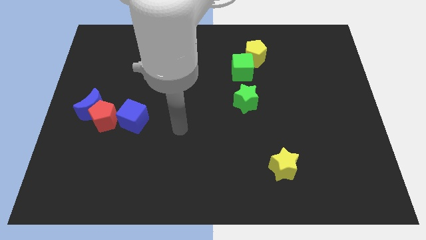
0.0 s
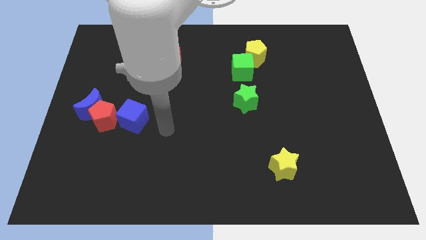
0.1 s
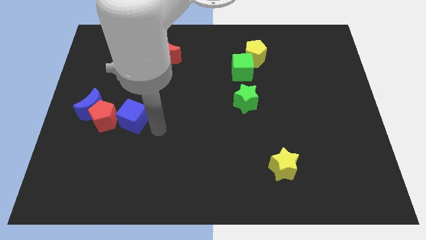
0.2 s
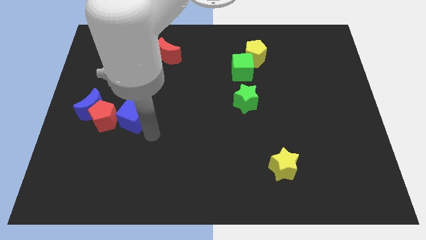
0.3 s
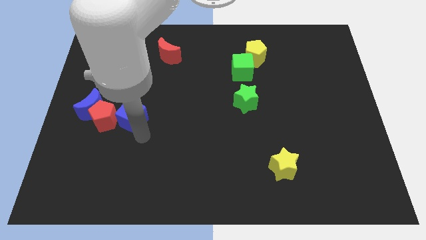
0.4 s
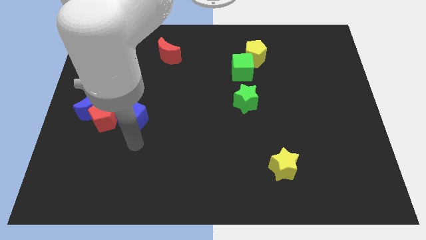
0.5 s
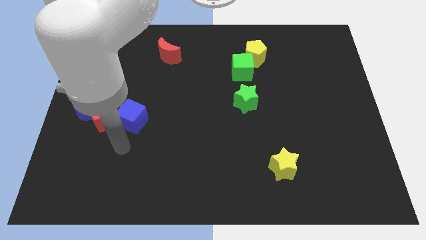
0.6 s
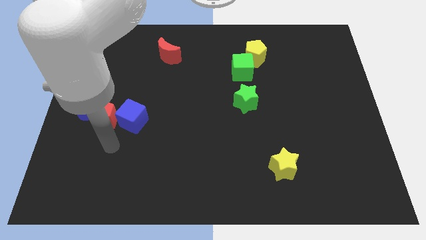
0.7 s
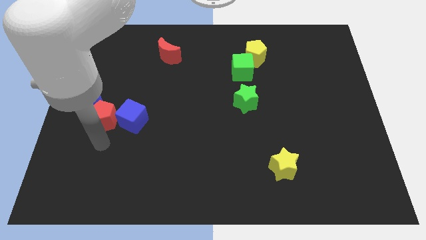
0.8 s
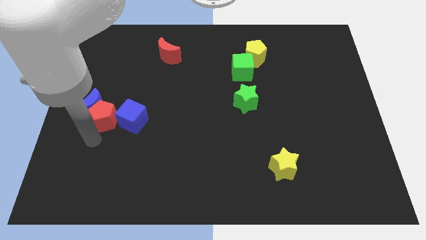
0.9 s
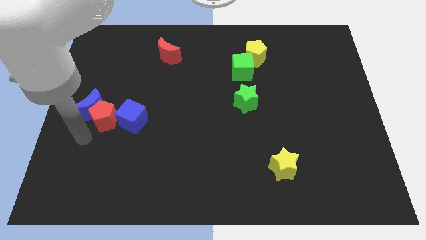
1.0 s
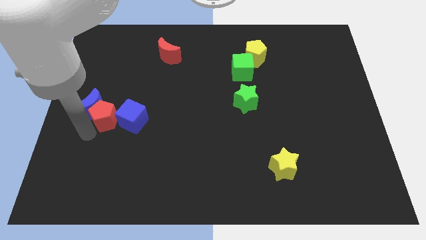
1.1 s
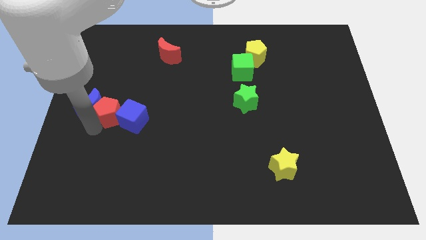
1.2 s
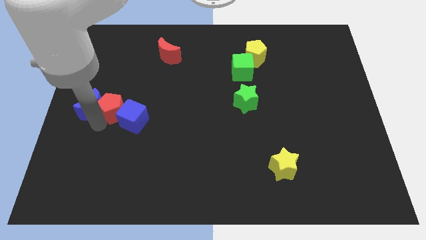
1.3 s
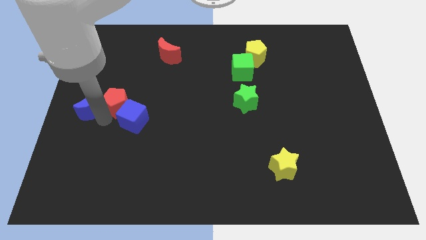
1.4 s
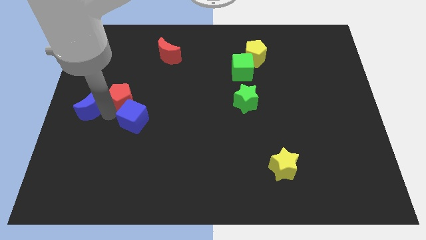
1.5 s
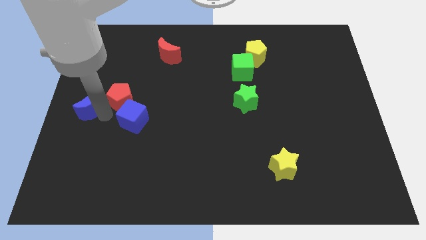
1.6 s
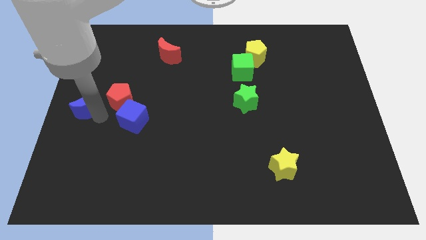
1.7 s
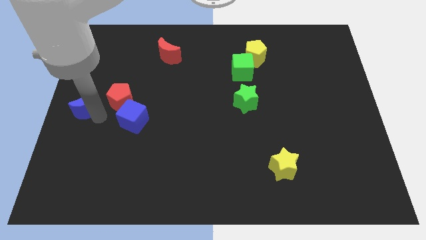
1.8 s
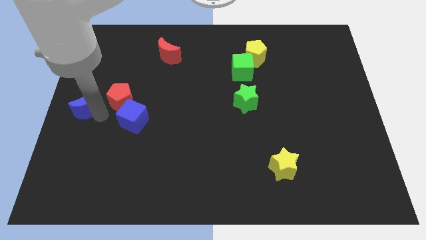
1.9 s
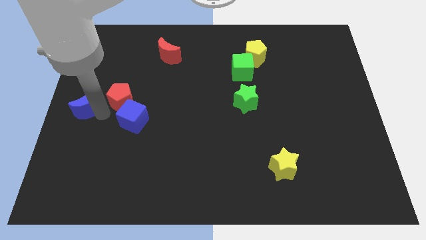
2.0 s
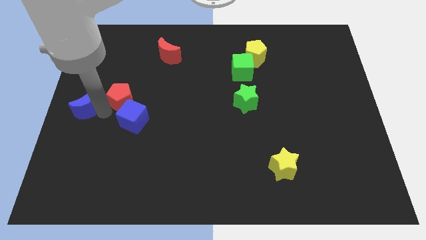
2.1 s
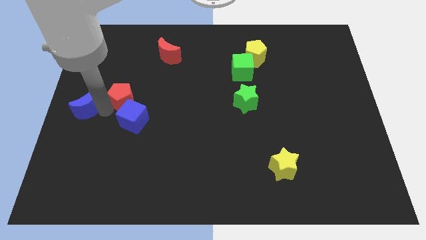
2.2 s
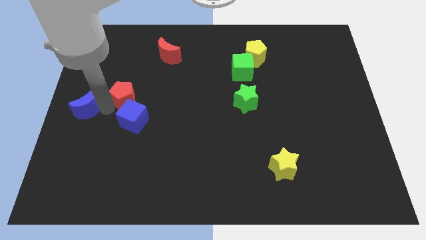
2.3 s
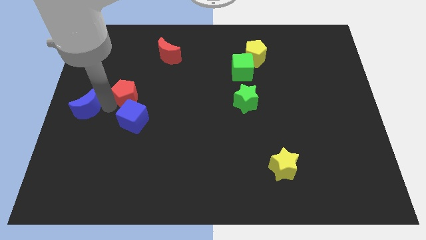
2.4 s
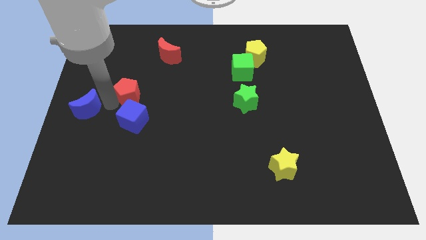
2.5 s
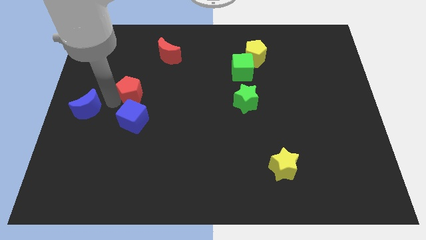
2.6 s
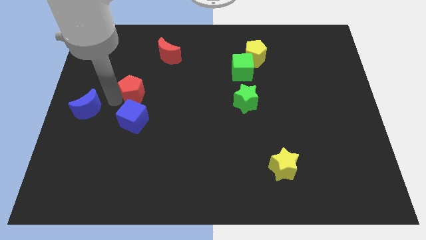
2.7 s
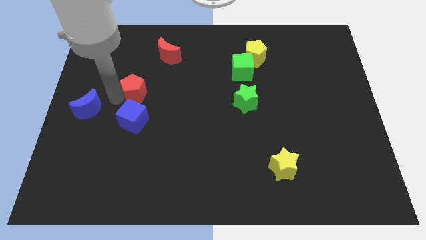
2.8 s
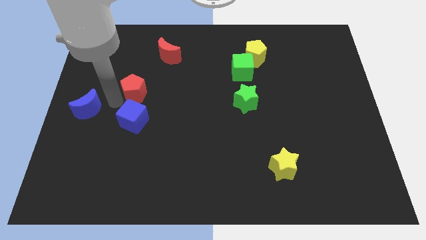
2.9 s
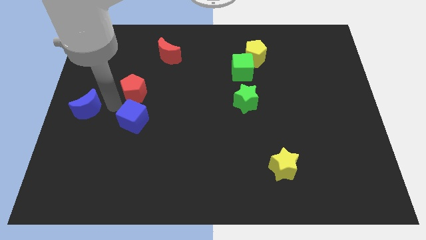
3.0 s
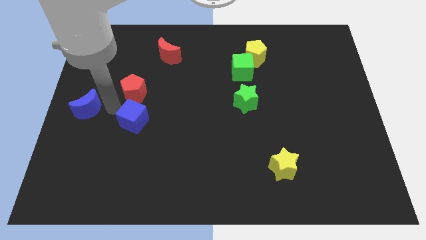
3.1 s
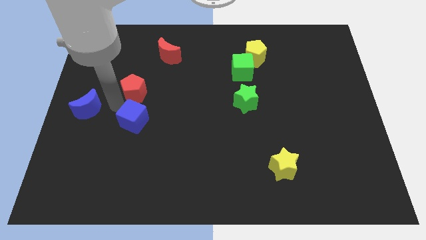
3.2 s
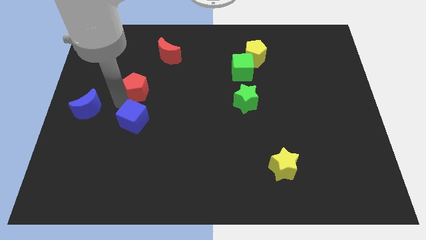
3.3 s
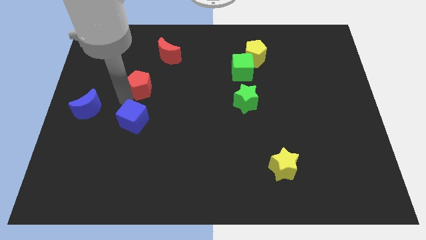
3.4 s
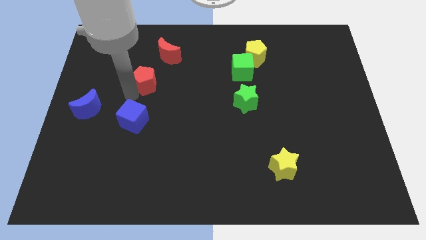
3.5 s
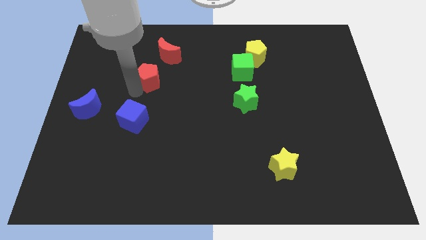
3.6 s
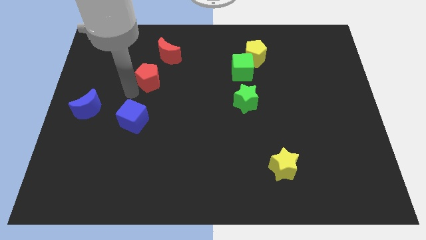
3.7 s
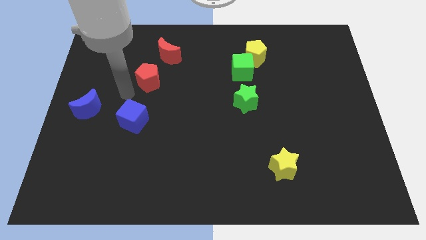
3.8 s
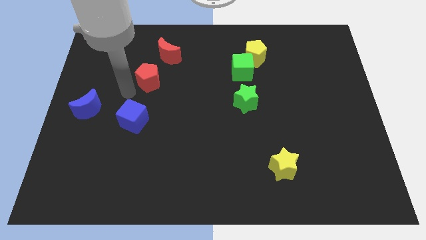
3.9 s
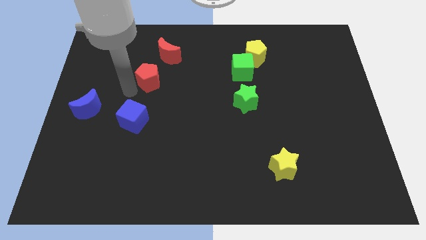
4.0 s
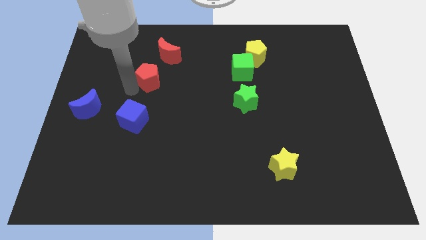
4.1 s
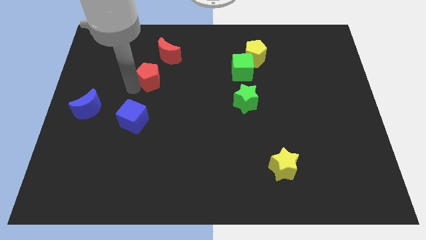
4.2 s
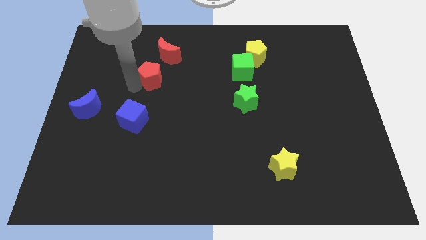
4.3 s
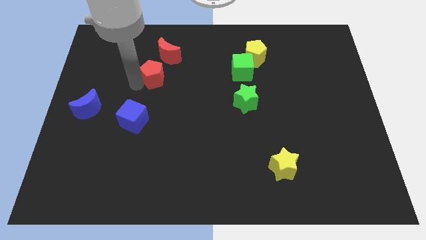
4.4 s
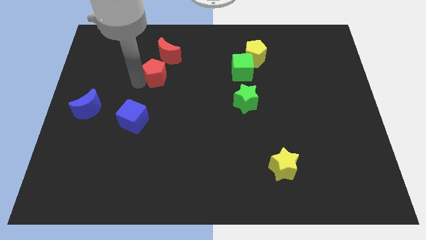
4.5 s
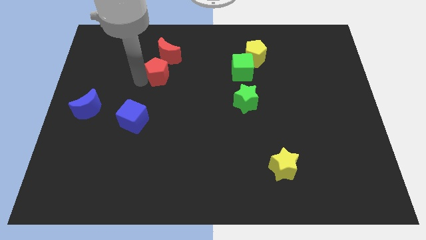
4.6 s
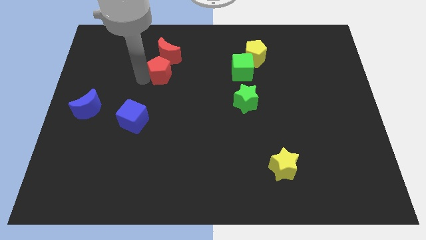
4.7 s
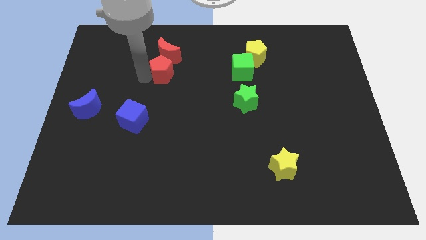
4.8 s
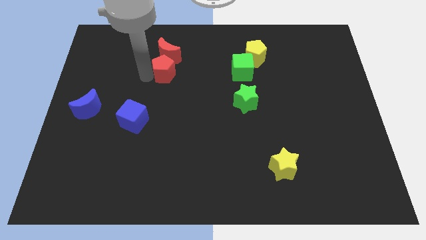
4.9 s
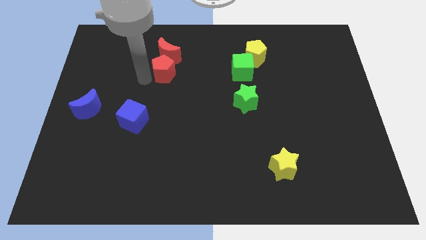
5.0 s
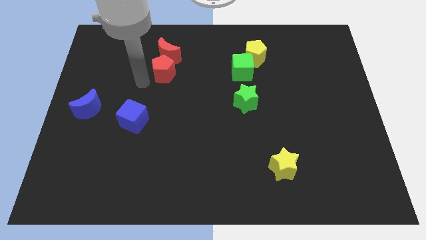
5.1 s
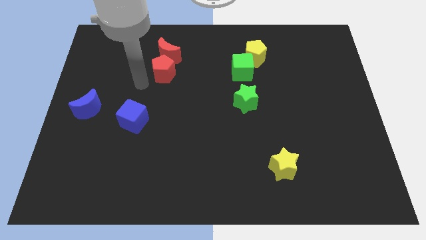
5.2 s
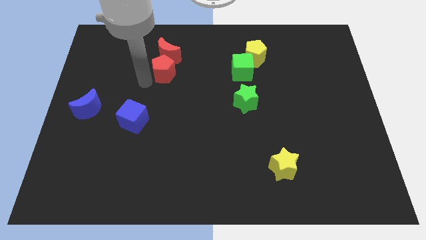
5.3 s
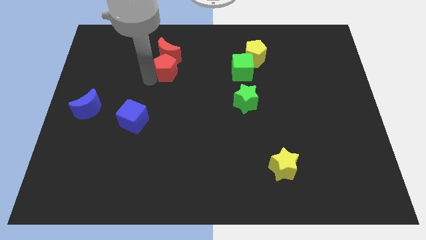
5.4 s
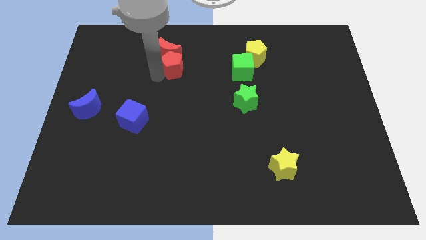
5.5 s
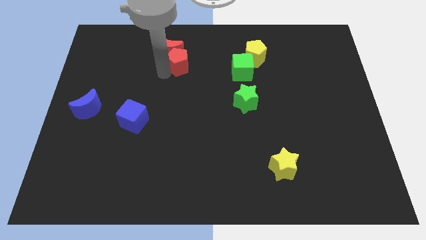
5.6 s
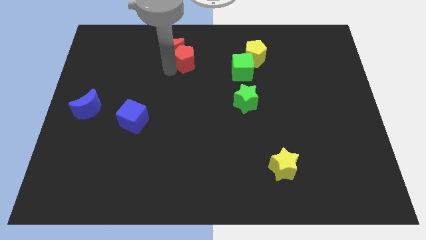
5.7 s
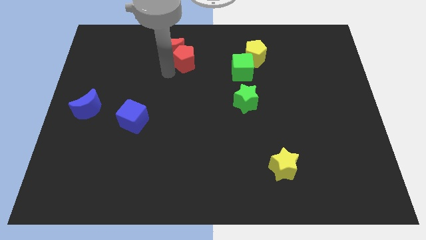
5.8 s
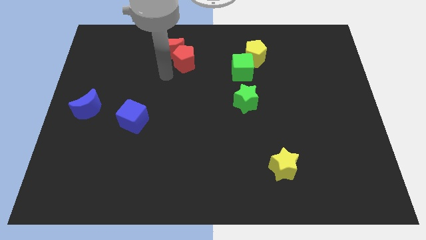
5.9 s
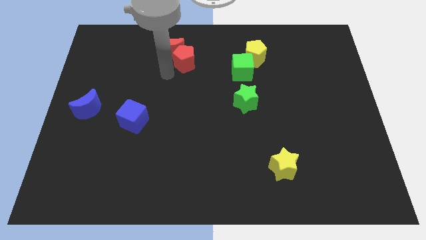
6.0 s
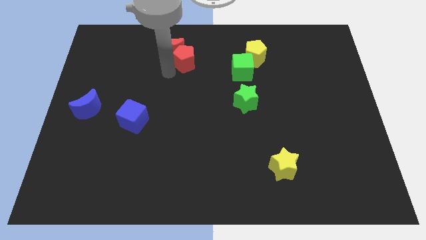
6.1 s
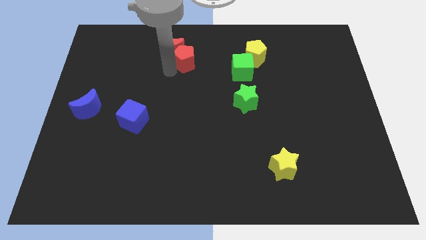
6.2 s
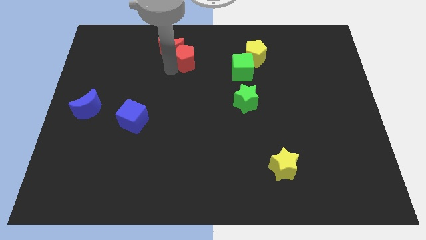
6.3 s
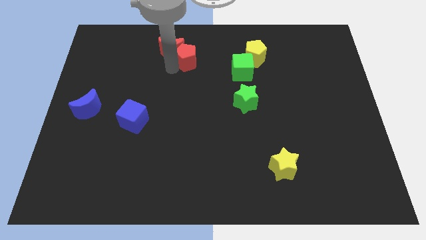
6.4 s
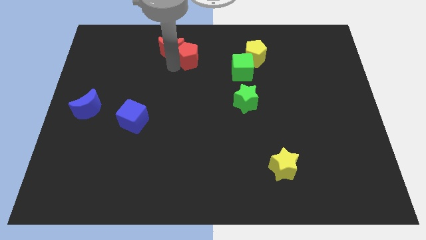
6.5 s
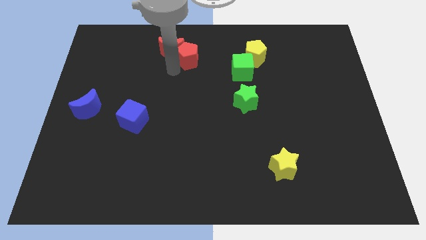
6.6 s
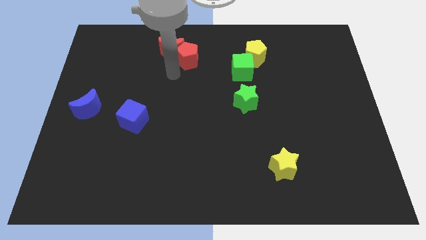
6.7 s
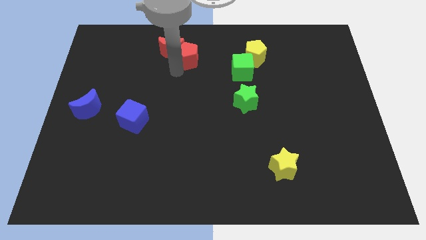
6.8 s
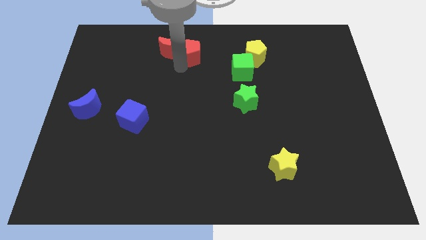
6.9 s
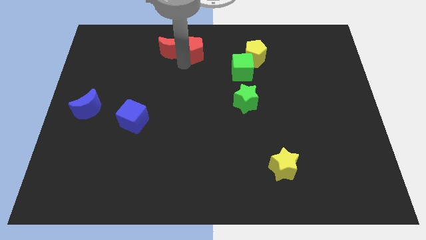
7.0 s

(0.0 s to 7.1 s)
slide the red pentagon to the top side
